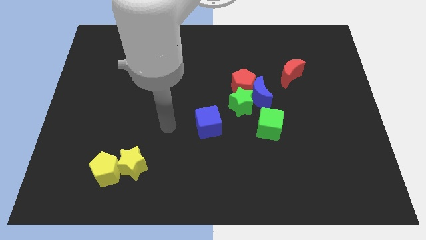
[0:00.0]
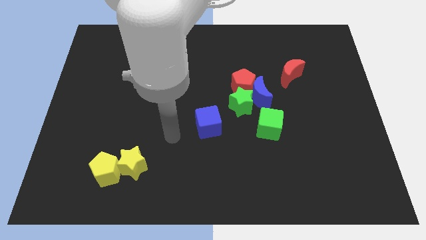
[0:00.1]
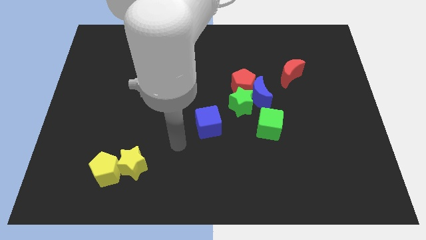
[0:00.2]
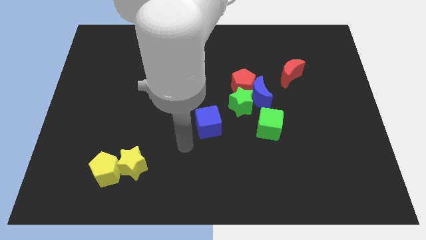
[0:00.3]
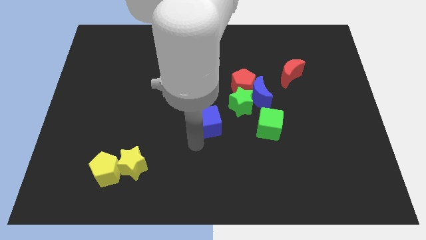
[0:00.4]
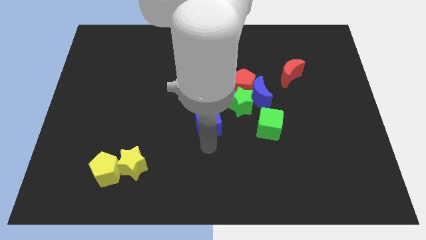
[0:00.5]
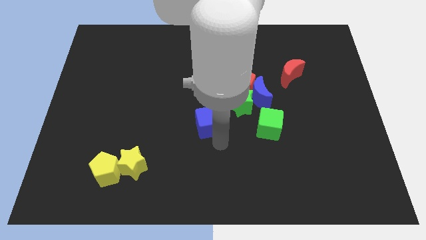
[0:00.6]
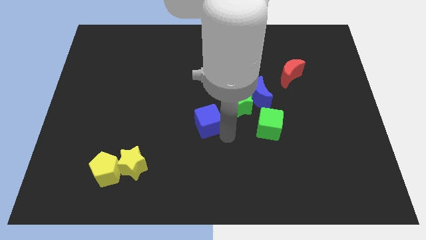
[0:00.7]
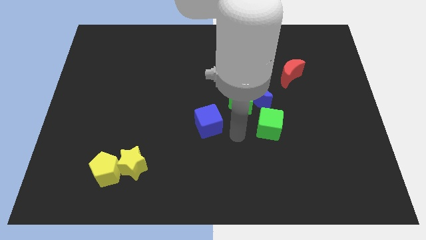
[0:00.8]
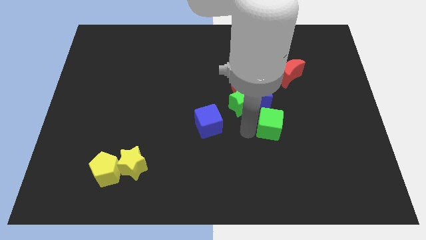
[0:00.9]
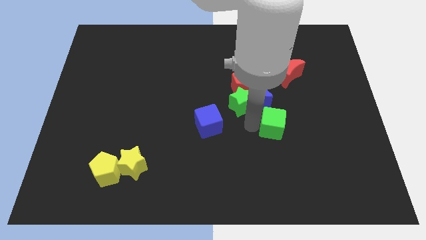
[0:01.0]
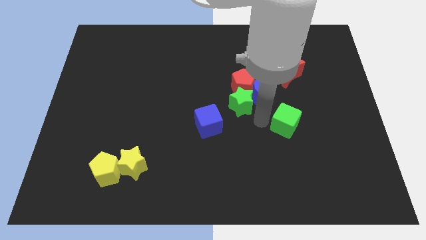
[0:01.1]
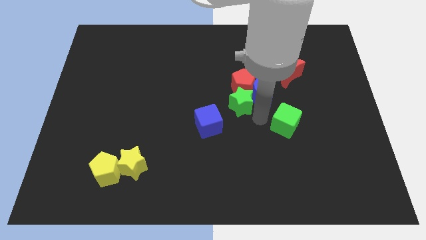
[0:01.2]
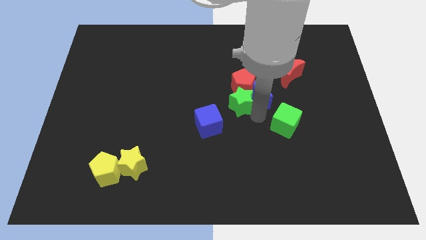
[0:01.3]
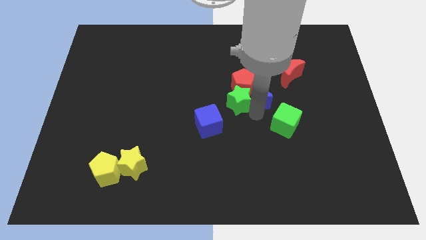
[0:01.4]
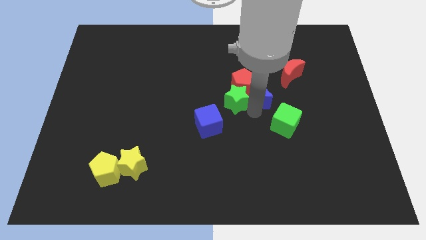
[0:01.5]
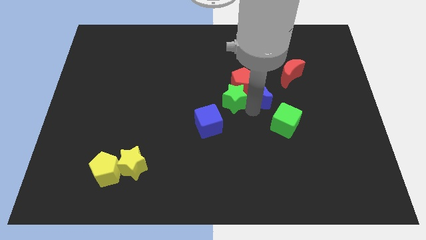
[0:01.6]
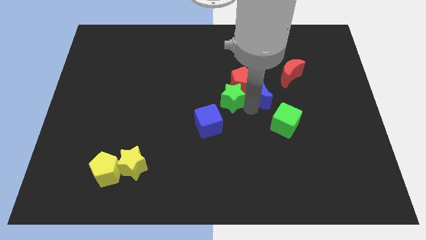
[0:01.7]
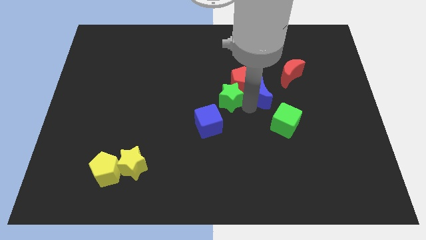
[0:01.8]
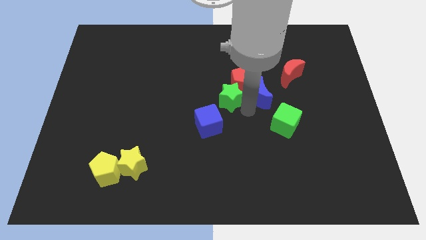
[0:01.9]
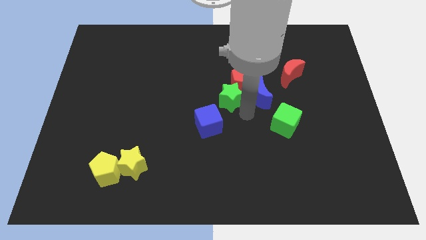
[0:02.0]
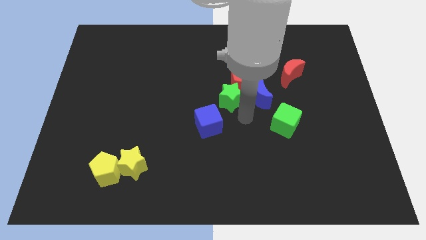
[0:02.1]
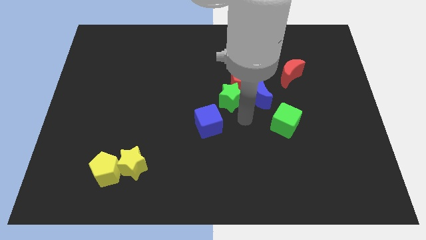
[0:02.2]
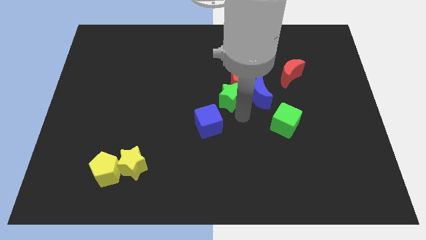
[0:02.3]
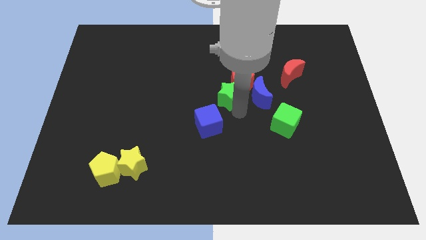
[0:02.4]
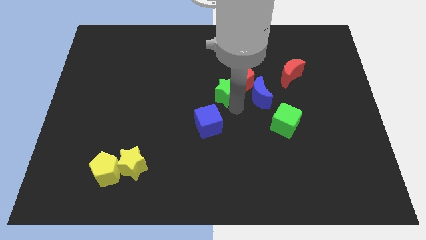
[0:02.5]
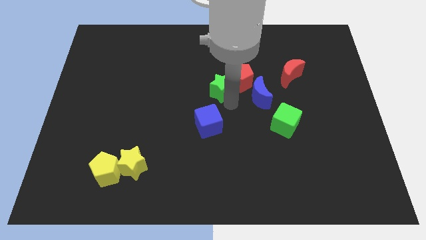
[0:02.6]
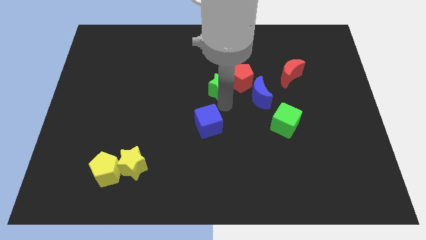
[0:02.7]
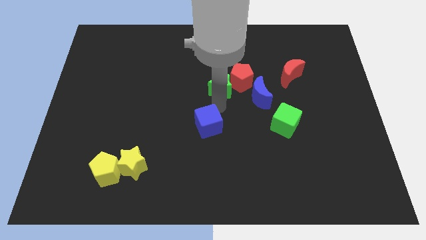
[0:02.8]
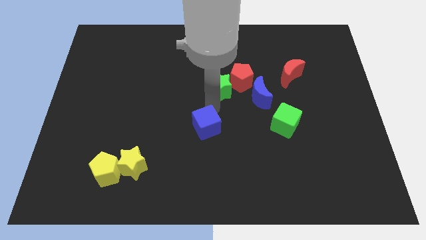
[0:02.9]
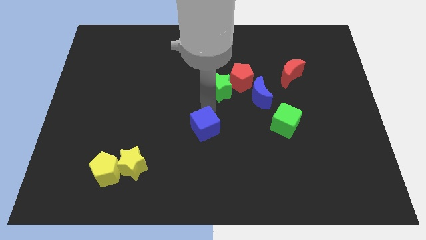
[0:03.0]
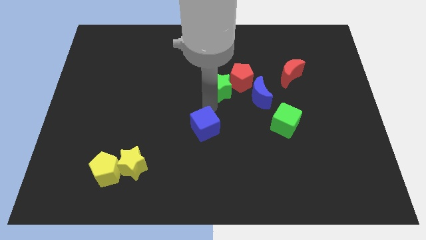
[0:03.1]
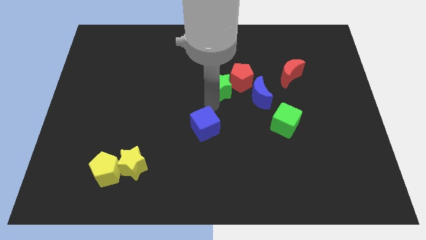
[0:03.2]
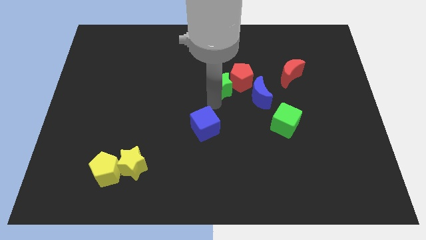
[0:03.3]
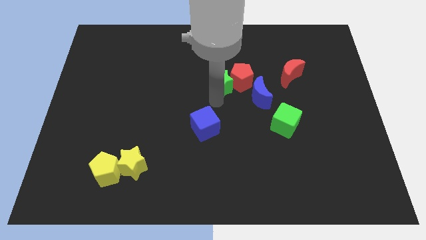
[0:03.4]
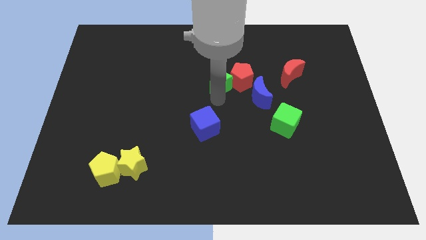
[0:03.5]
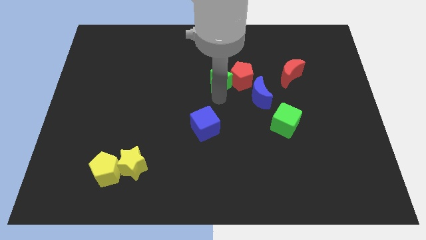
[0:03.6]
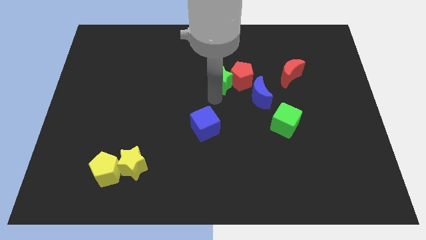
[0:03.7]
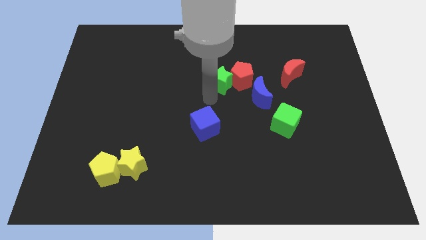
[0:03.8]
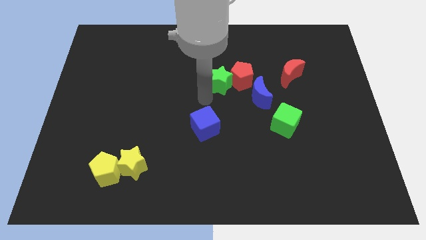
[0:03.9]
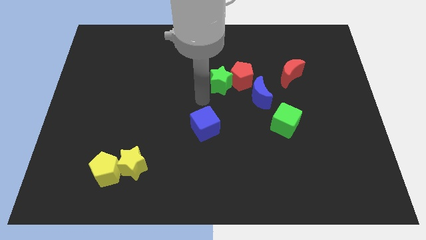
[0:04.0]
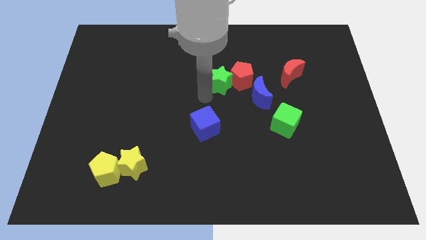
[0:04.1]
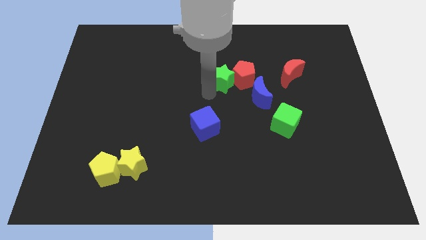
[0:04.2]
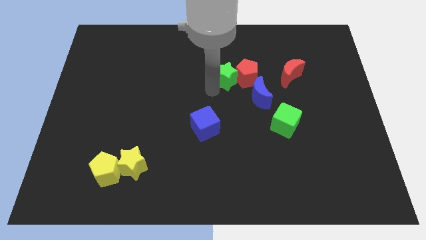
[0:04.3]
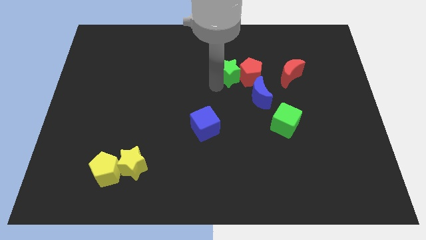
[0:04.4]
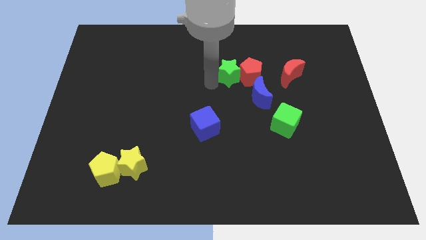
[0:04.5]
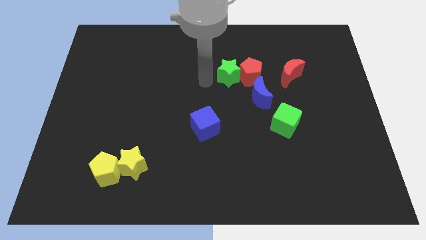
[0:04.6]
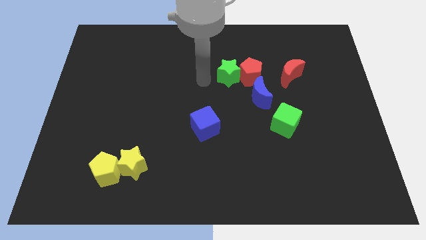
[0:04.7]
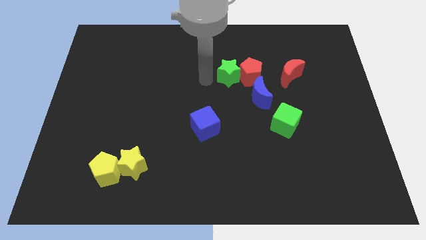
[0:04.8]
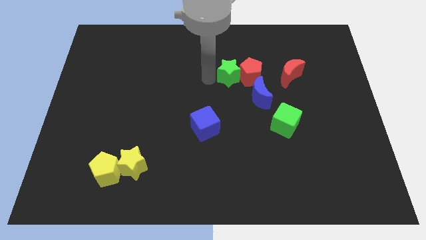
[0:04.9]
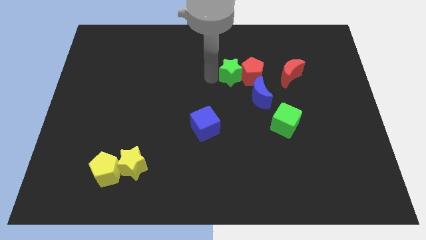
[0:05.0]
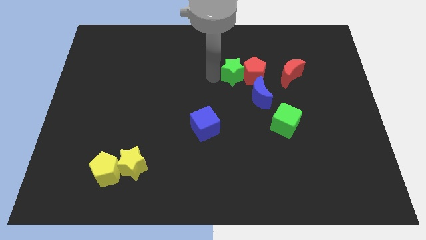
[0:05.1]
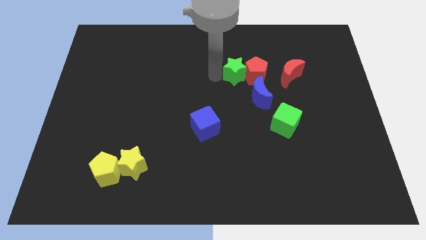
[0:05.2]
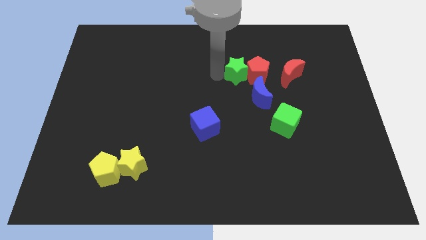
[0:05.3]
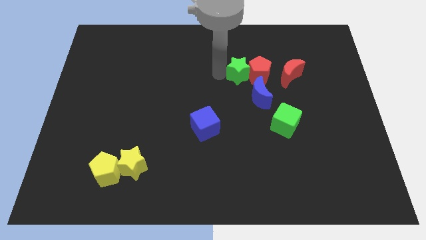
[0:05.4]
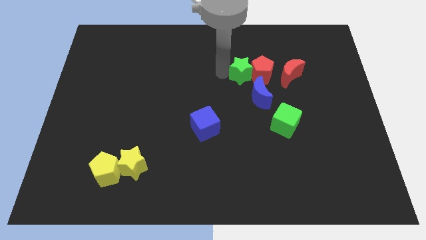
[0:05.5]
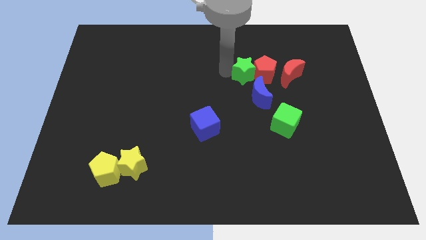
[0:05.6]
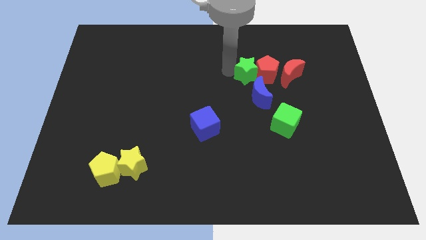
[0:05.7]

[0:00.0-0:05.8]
slightly move the green star up and then to the right

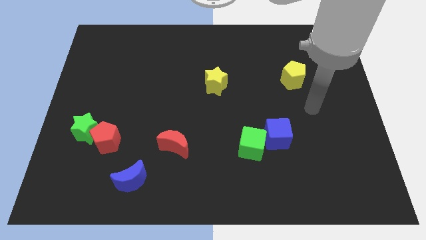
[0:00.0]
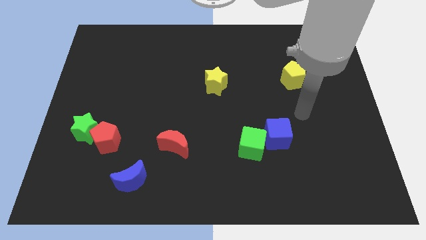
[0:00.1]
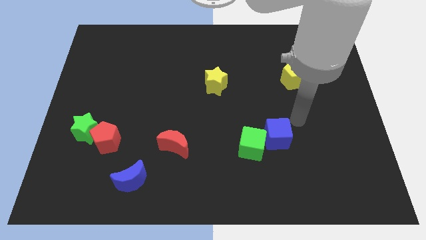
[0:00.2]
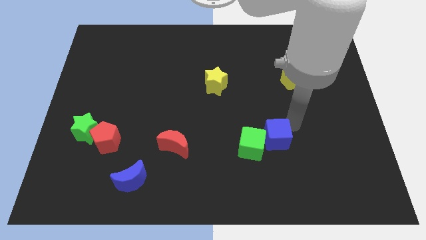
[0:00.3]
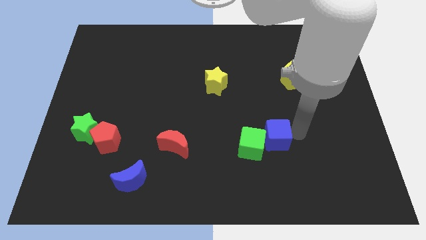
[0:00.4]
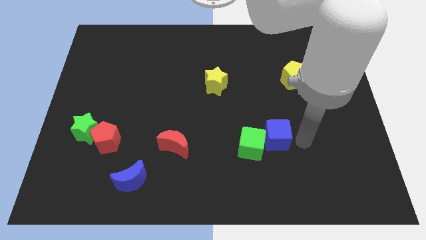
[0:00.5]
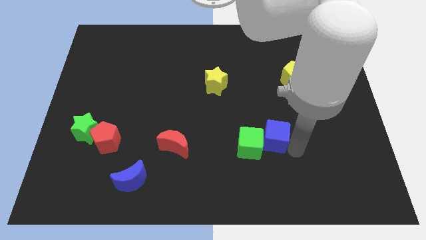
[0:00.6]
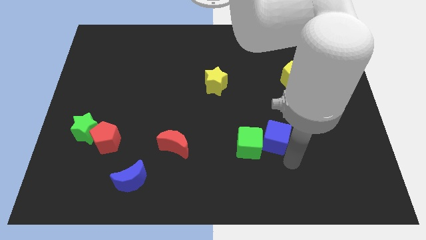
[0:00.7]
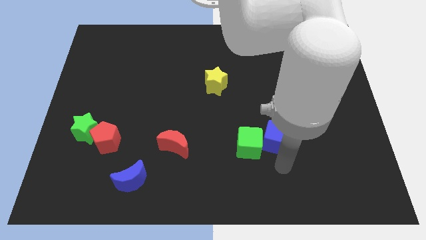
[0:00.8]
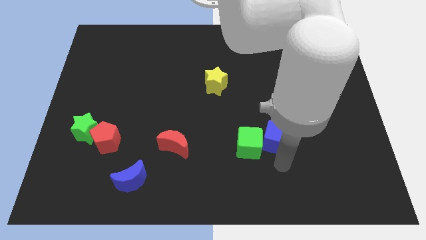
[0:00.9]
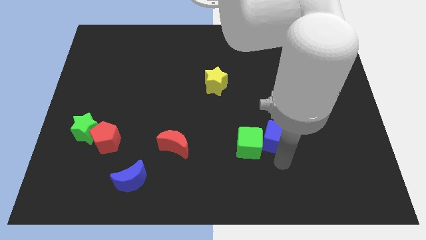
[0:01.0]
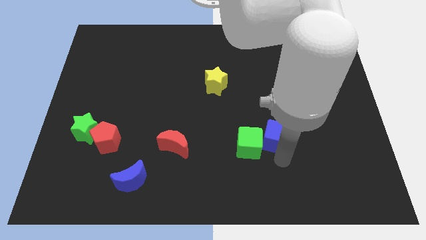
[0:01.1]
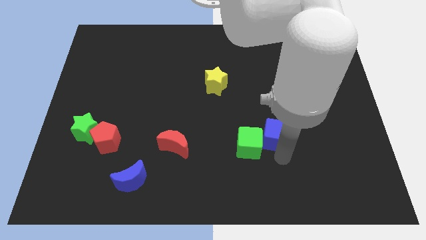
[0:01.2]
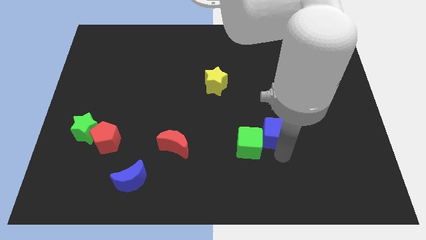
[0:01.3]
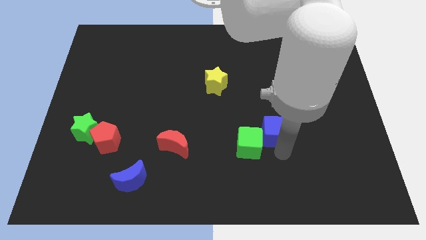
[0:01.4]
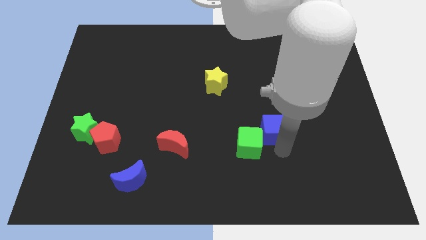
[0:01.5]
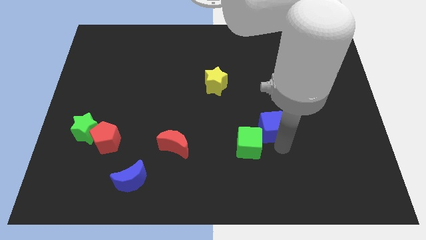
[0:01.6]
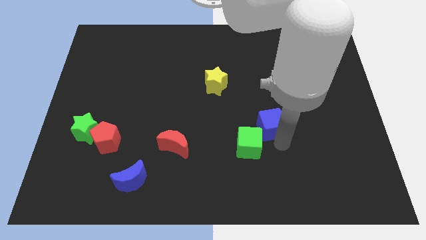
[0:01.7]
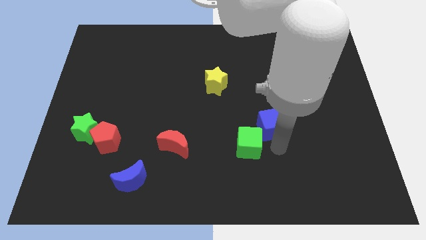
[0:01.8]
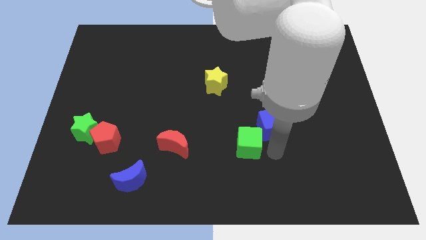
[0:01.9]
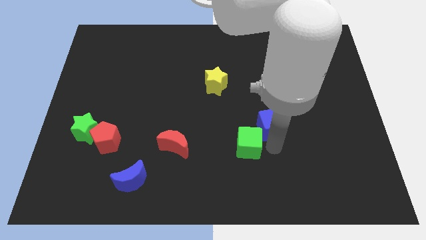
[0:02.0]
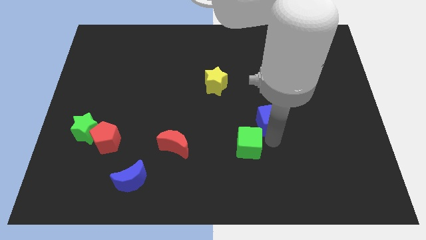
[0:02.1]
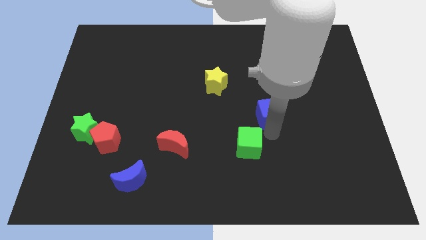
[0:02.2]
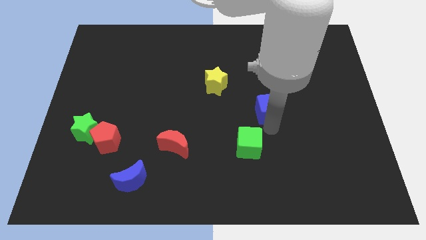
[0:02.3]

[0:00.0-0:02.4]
move the blue cube up a bit
